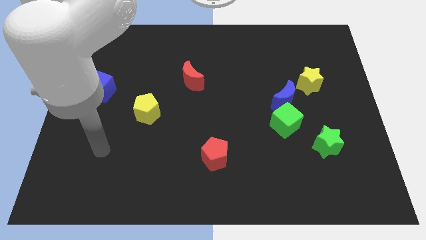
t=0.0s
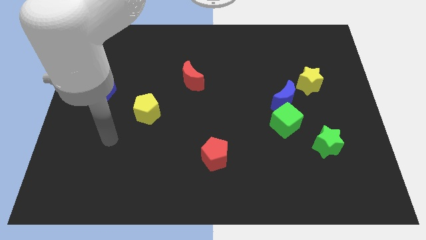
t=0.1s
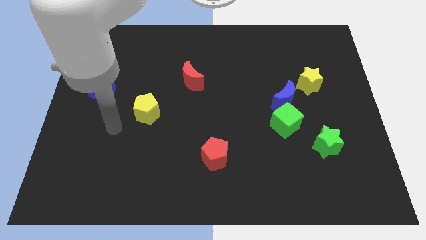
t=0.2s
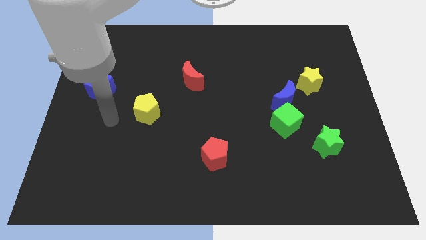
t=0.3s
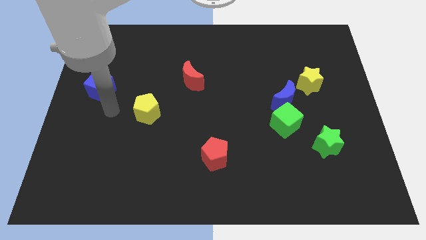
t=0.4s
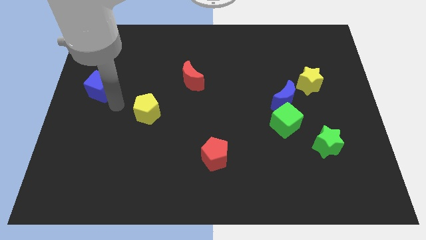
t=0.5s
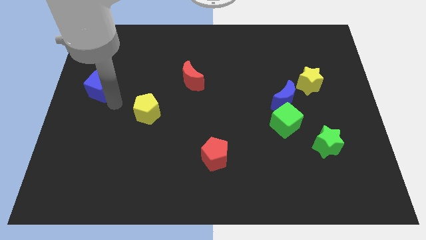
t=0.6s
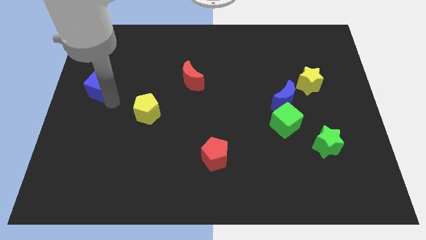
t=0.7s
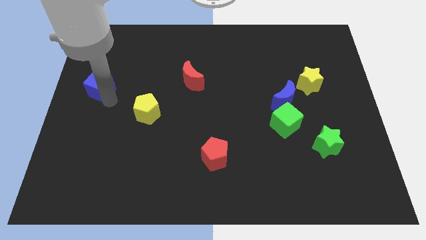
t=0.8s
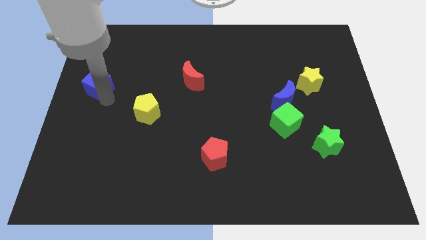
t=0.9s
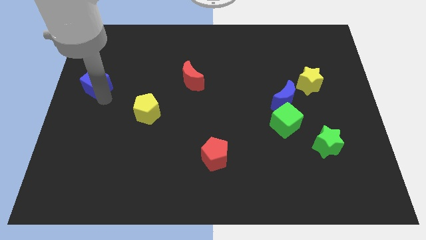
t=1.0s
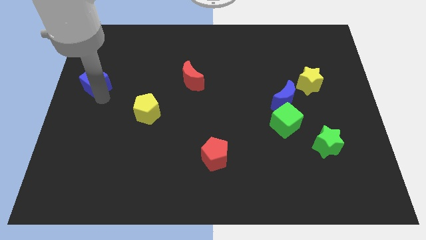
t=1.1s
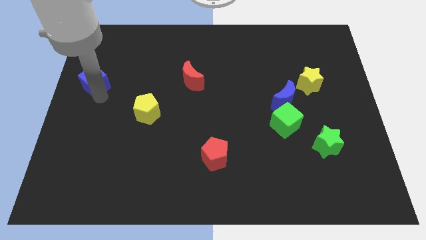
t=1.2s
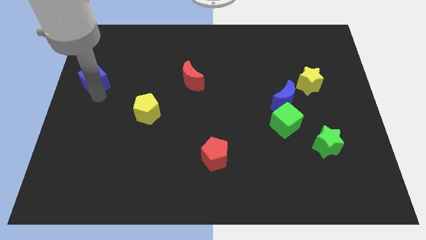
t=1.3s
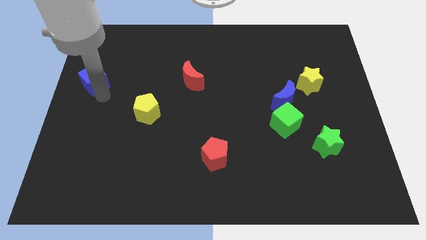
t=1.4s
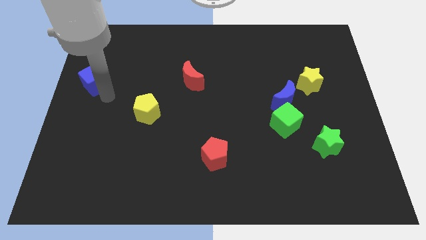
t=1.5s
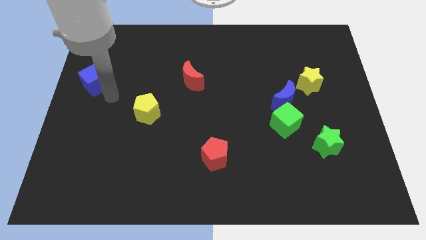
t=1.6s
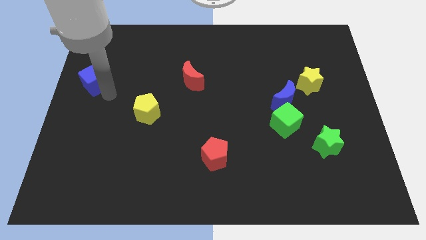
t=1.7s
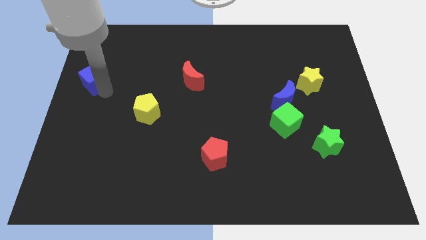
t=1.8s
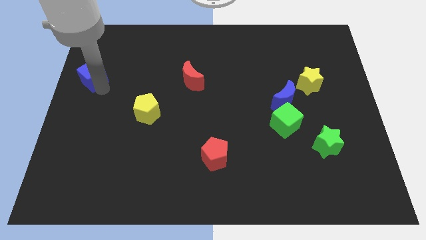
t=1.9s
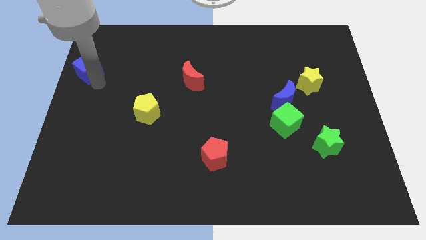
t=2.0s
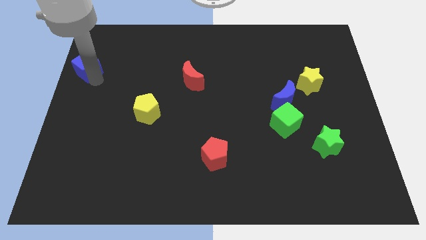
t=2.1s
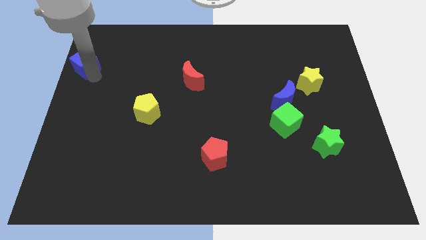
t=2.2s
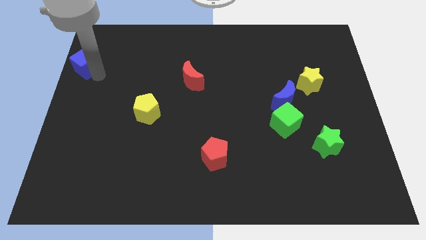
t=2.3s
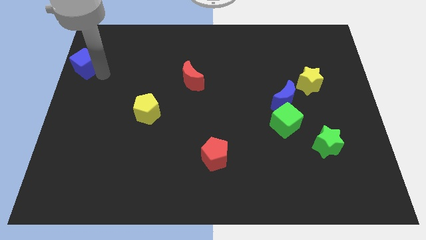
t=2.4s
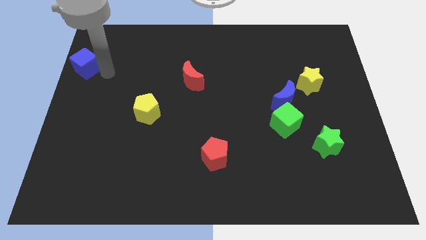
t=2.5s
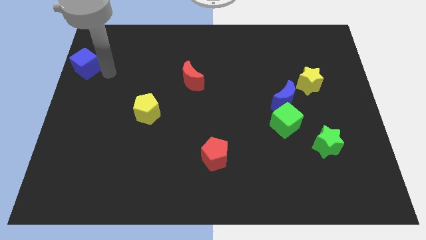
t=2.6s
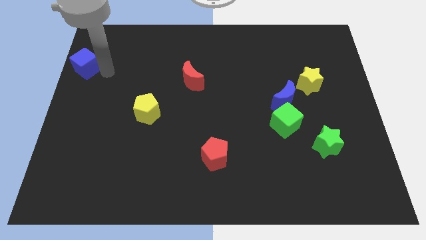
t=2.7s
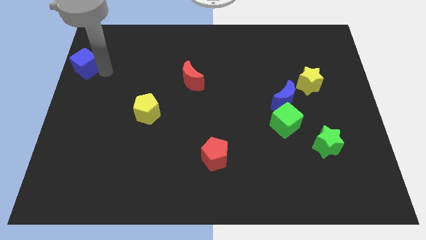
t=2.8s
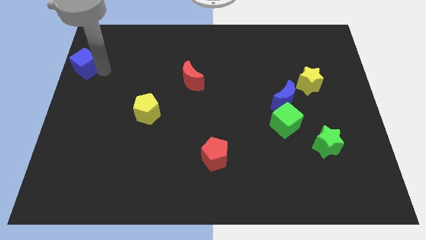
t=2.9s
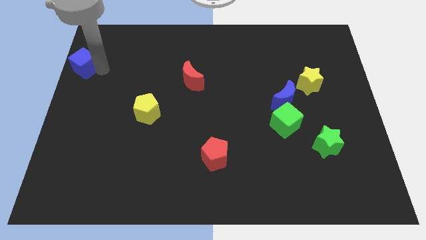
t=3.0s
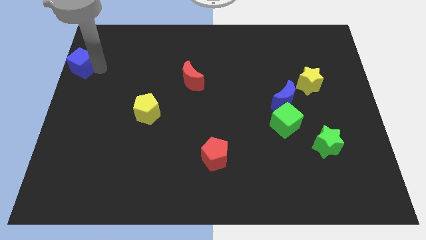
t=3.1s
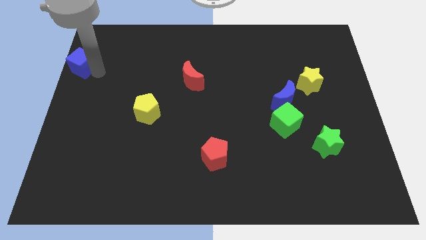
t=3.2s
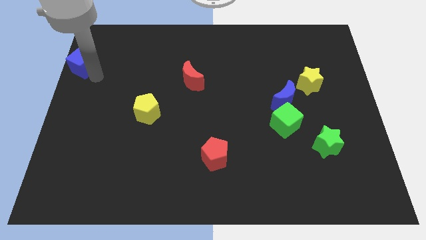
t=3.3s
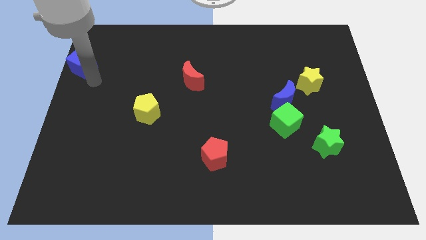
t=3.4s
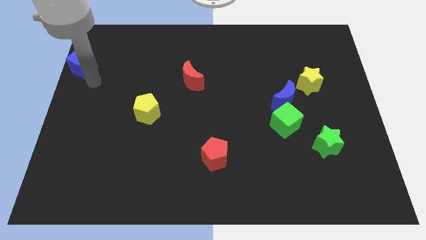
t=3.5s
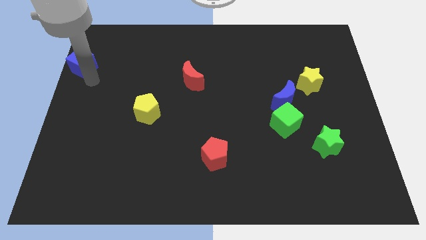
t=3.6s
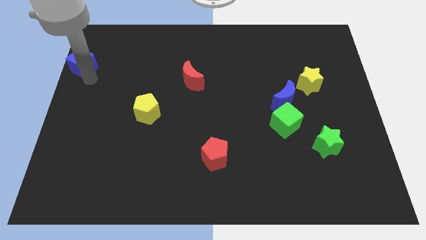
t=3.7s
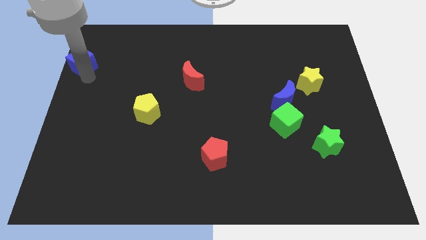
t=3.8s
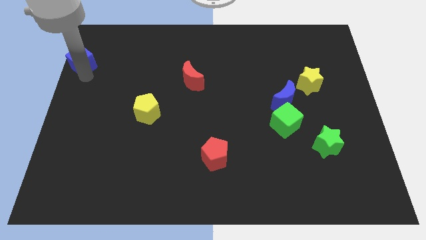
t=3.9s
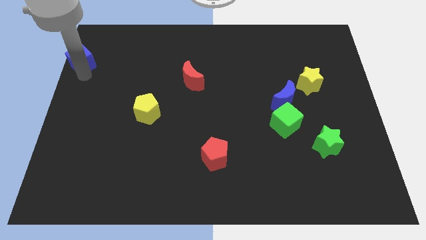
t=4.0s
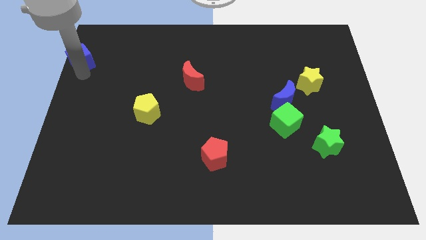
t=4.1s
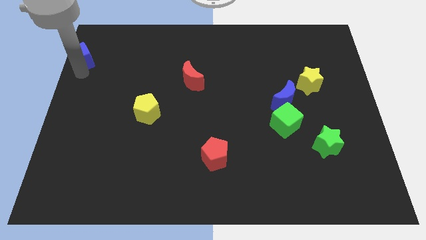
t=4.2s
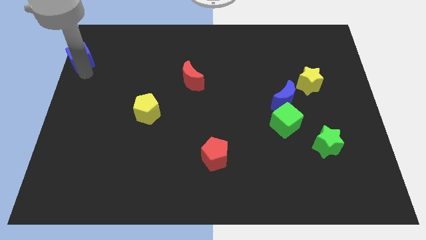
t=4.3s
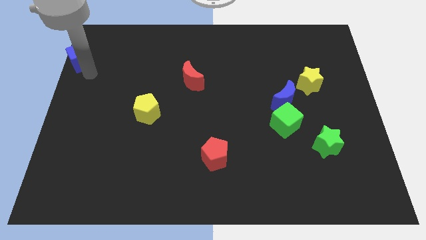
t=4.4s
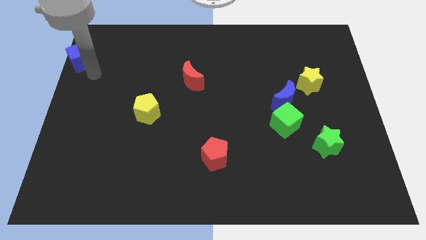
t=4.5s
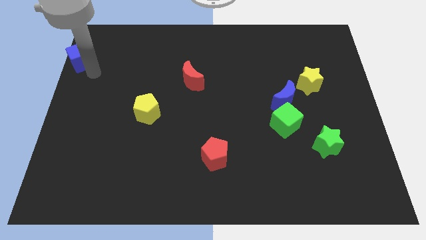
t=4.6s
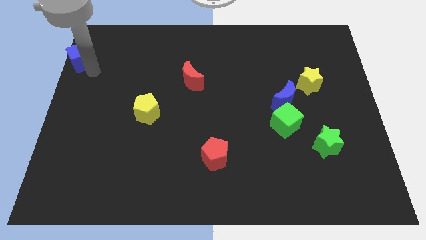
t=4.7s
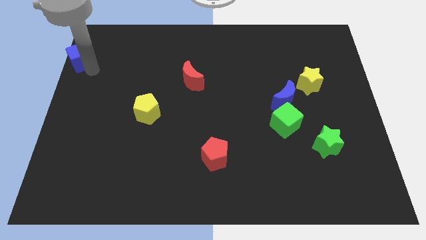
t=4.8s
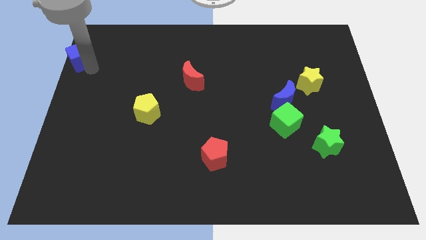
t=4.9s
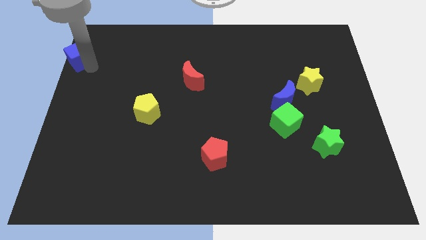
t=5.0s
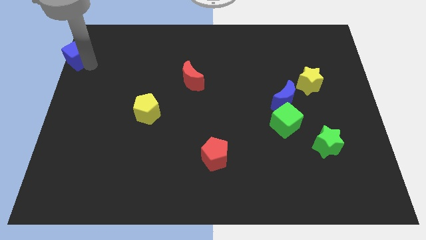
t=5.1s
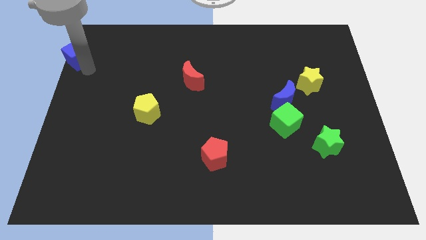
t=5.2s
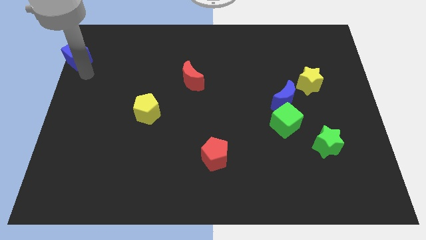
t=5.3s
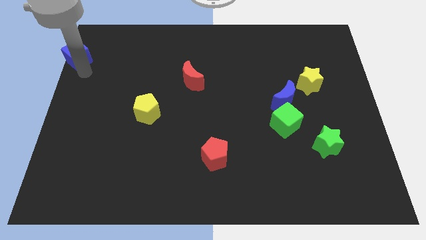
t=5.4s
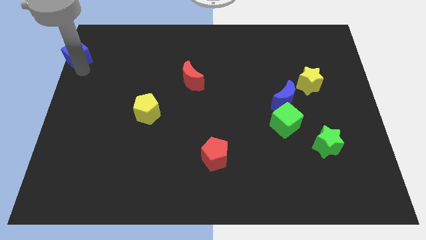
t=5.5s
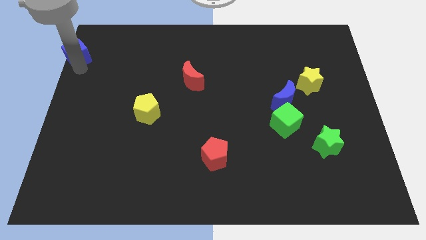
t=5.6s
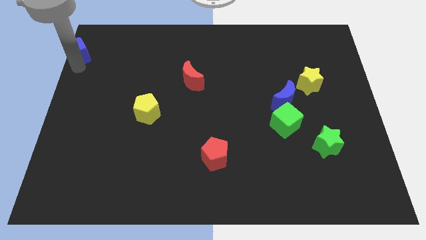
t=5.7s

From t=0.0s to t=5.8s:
push the blue cube to the top left
